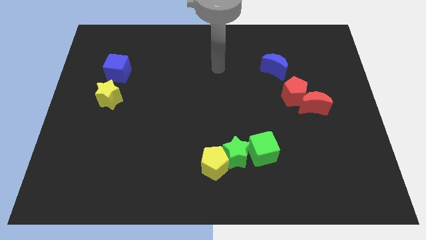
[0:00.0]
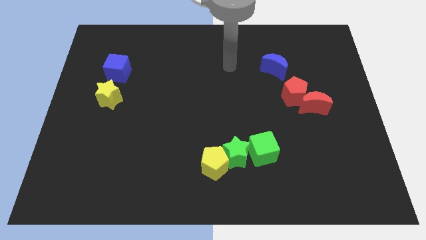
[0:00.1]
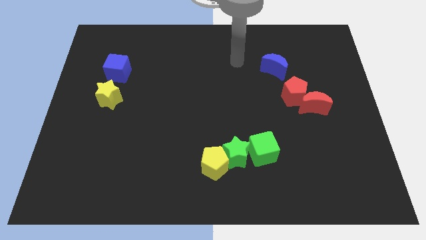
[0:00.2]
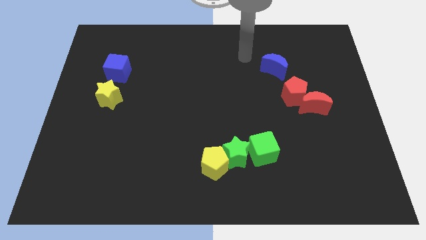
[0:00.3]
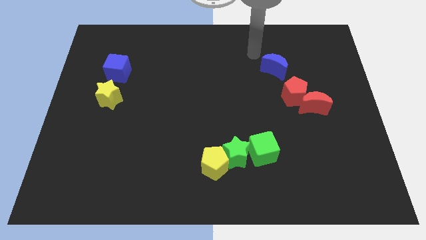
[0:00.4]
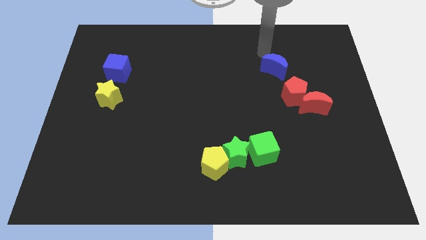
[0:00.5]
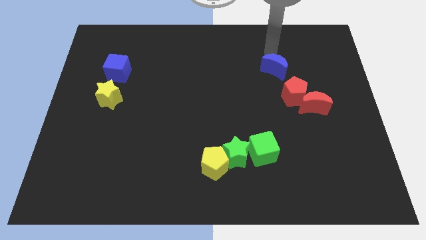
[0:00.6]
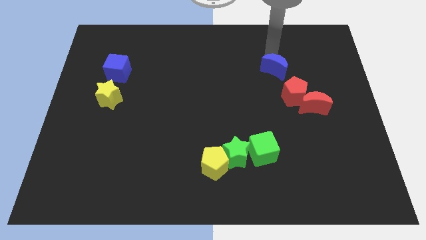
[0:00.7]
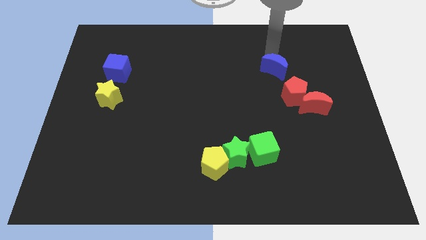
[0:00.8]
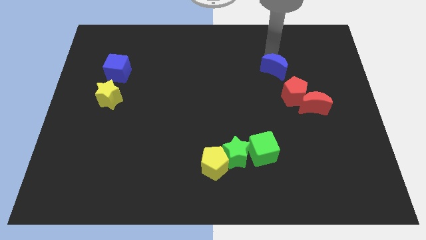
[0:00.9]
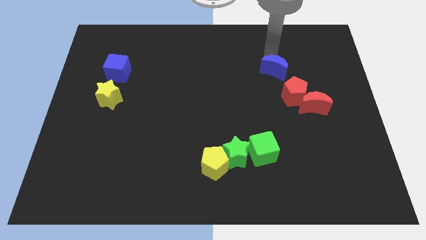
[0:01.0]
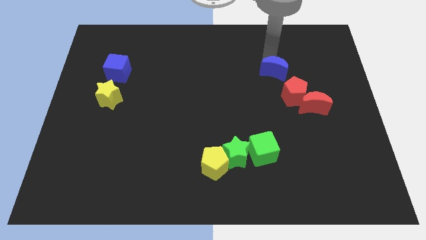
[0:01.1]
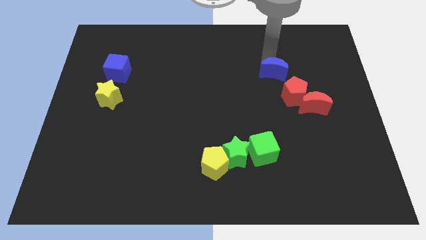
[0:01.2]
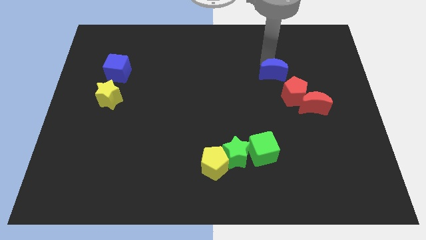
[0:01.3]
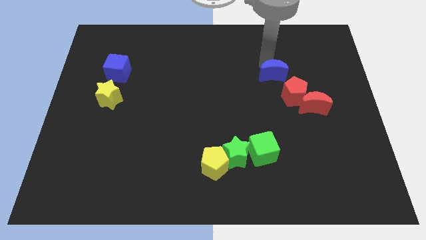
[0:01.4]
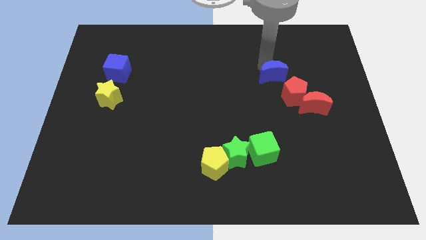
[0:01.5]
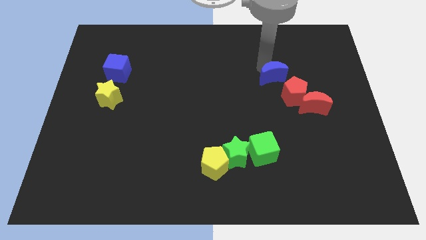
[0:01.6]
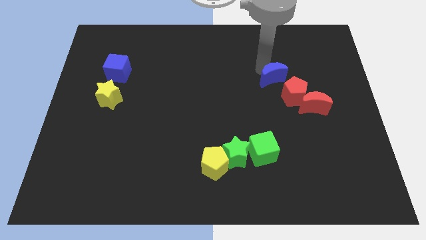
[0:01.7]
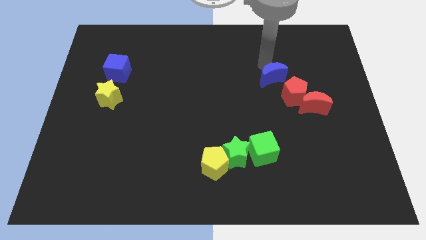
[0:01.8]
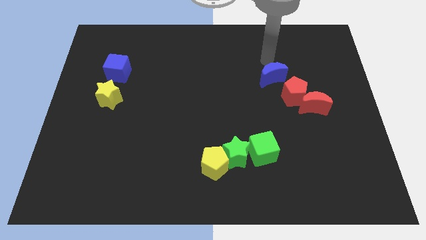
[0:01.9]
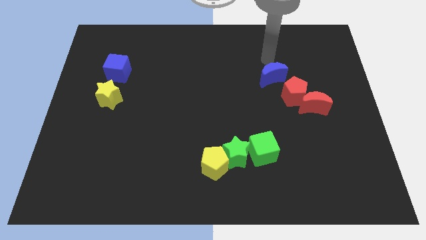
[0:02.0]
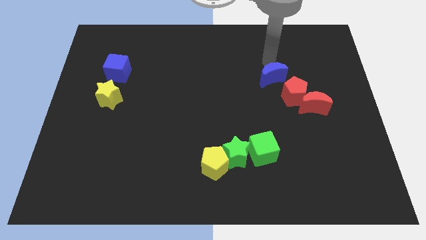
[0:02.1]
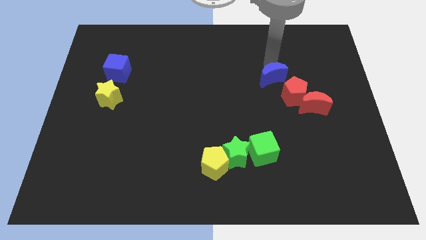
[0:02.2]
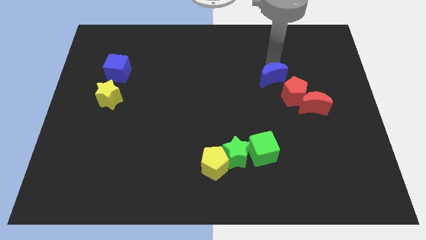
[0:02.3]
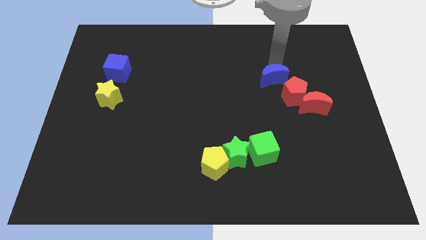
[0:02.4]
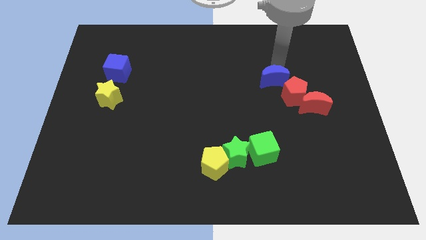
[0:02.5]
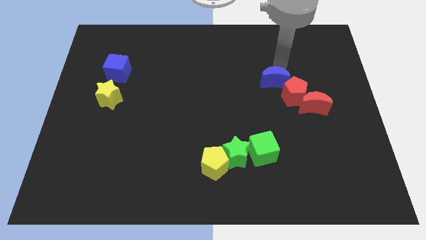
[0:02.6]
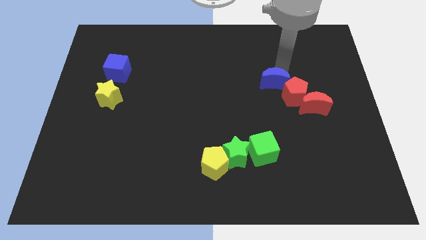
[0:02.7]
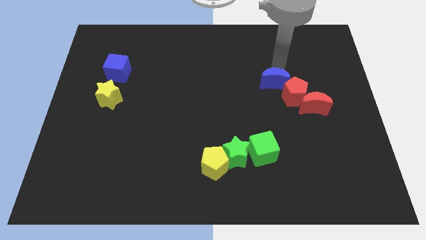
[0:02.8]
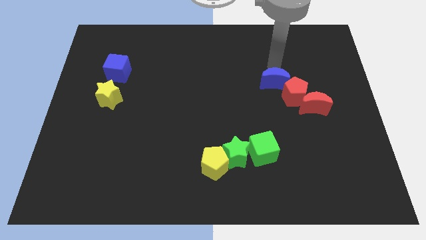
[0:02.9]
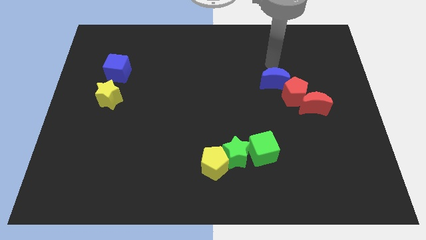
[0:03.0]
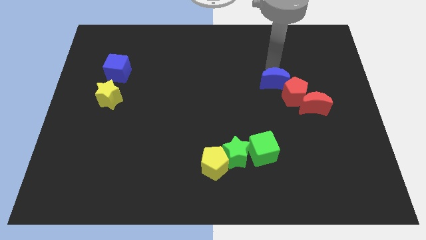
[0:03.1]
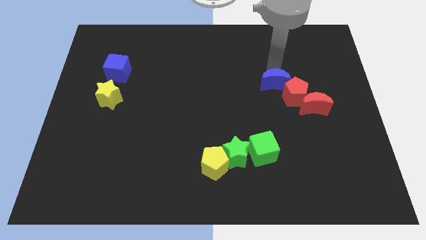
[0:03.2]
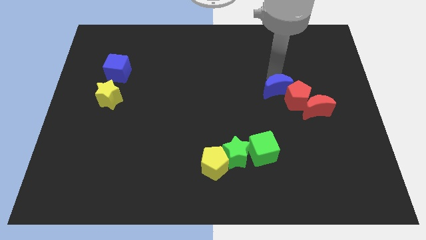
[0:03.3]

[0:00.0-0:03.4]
slightly push the blue moon downwards

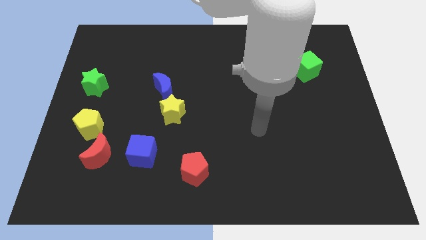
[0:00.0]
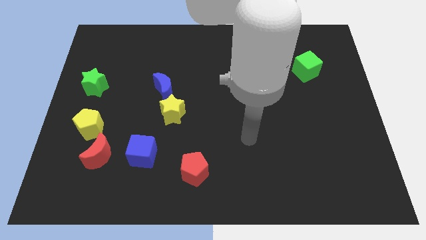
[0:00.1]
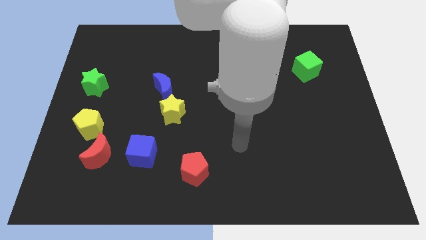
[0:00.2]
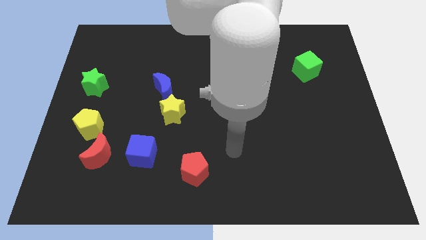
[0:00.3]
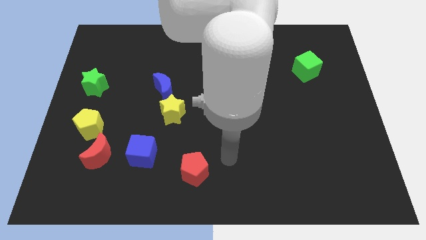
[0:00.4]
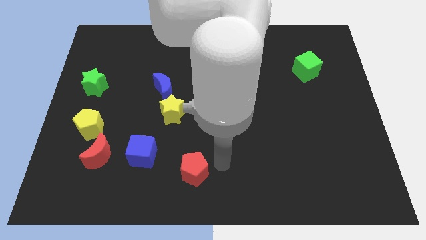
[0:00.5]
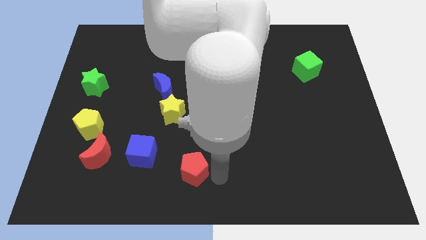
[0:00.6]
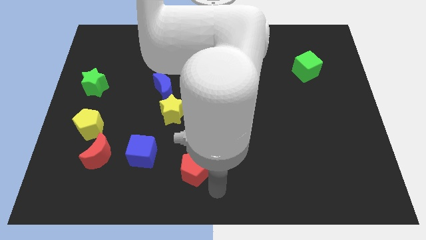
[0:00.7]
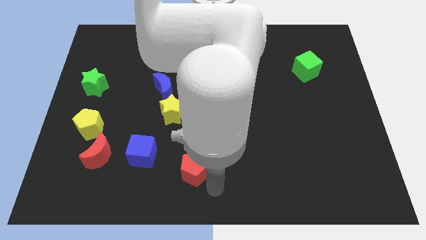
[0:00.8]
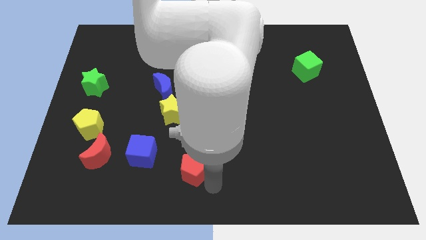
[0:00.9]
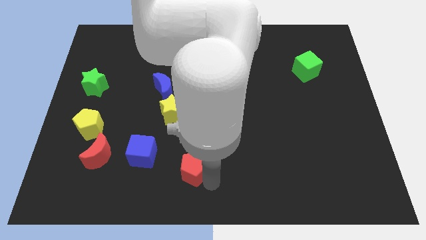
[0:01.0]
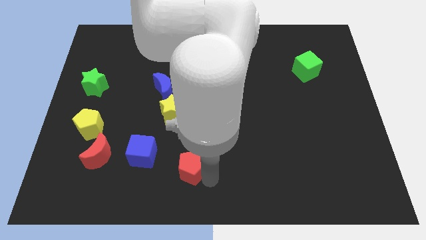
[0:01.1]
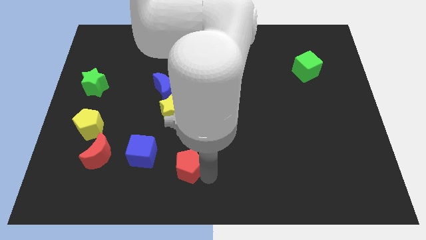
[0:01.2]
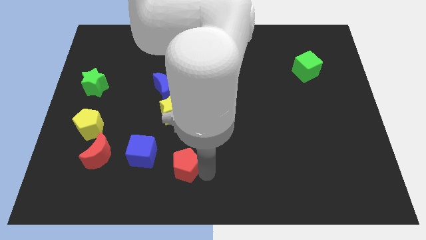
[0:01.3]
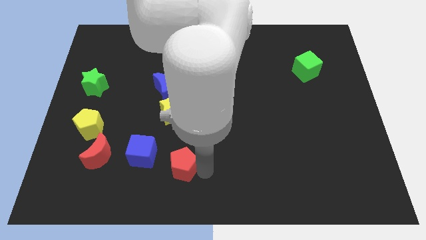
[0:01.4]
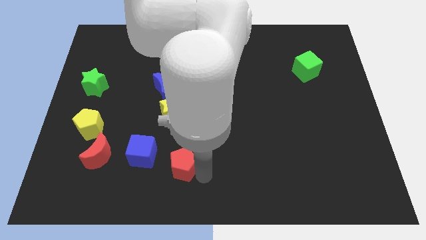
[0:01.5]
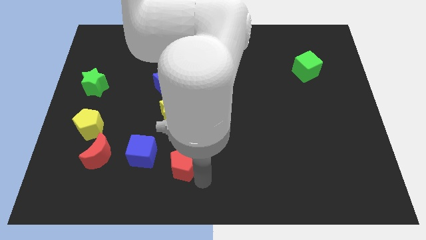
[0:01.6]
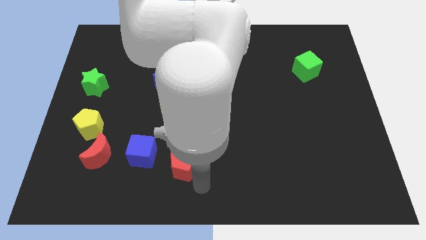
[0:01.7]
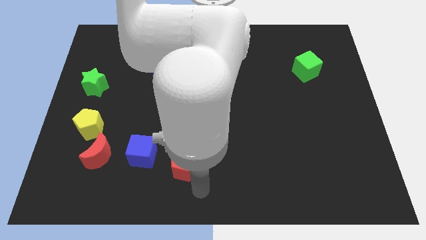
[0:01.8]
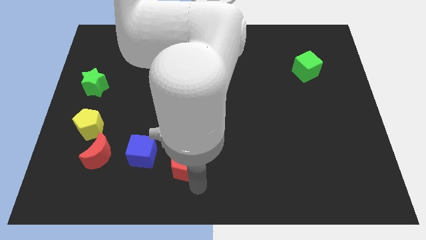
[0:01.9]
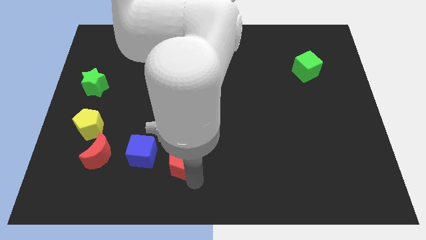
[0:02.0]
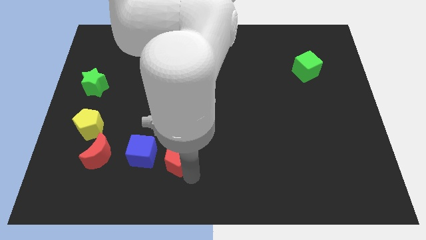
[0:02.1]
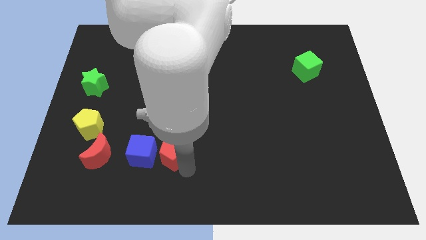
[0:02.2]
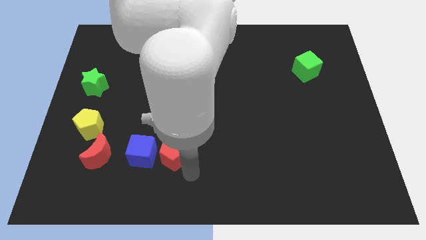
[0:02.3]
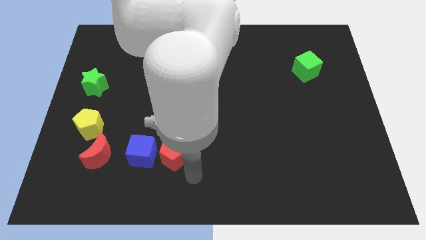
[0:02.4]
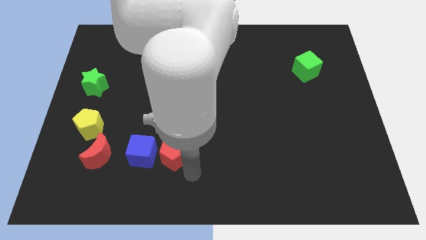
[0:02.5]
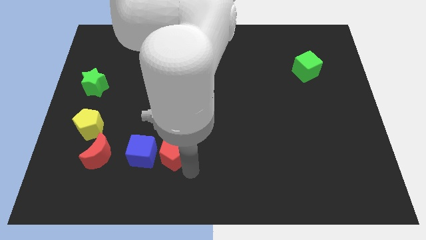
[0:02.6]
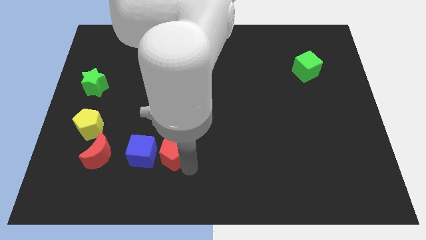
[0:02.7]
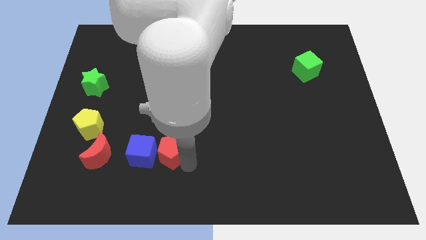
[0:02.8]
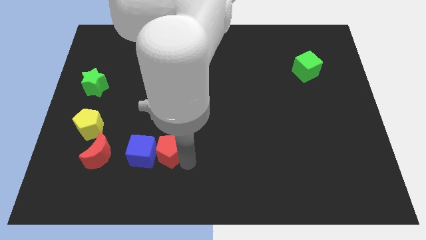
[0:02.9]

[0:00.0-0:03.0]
move the red pentagon upwards and left diagonally a bit

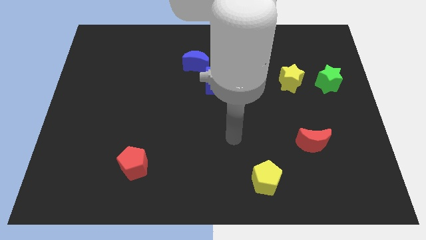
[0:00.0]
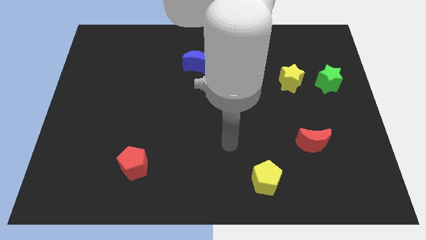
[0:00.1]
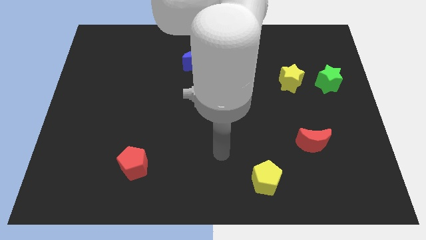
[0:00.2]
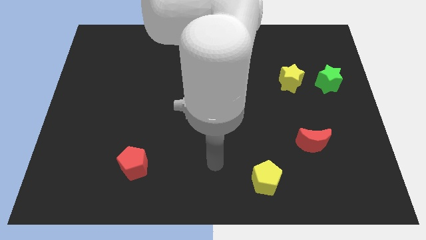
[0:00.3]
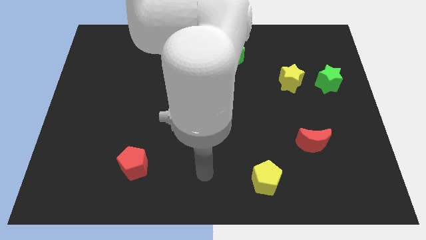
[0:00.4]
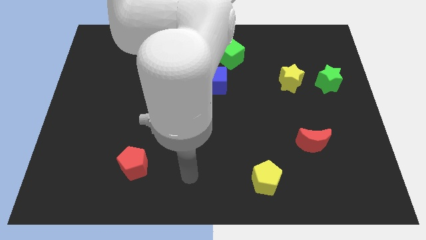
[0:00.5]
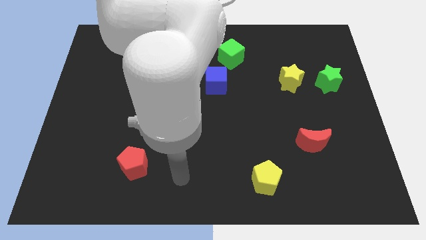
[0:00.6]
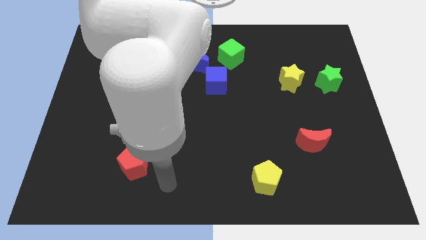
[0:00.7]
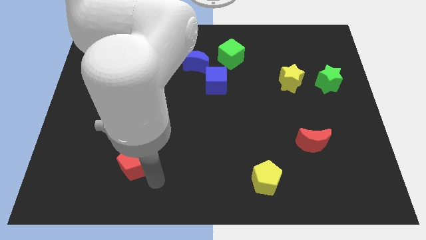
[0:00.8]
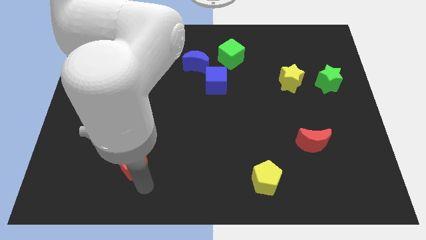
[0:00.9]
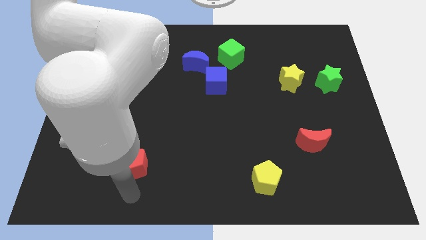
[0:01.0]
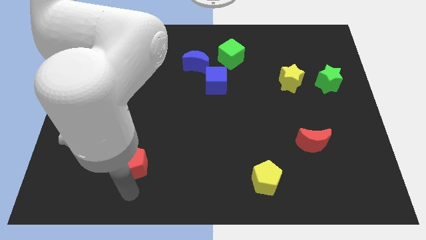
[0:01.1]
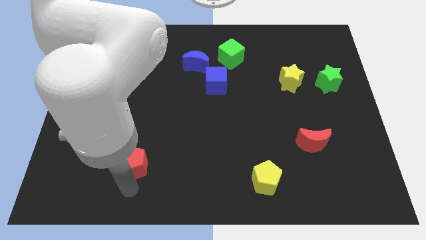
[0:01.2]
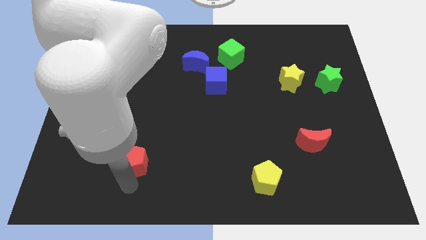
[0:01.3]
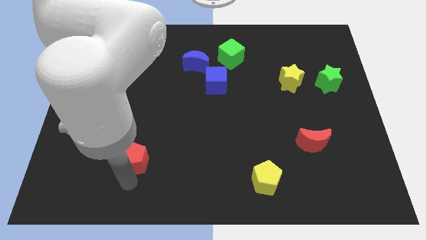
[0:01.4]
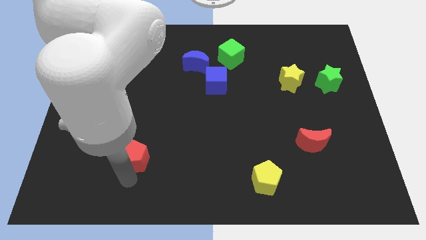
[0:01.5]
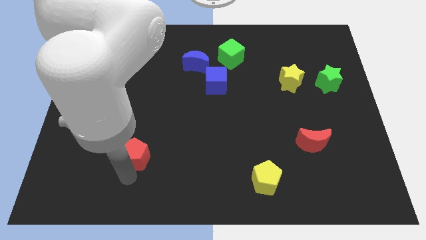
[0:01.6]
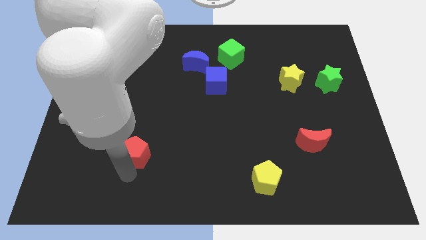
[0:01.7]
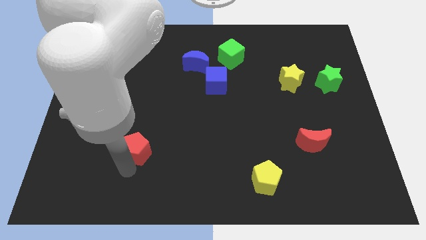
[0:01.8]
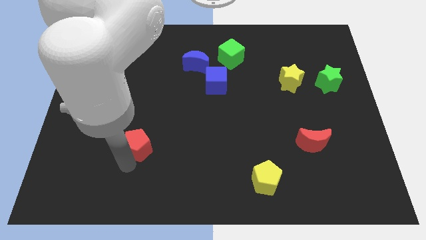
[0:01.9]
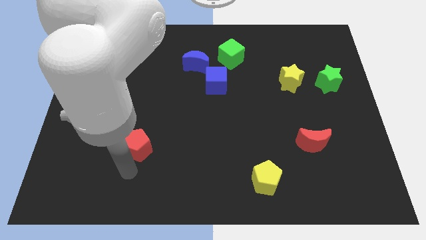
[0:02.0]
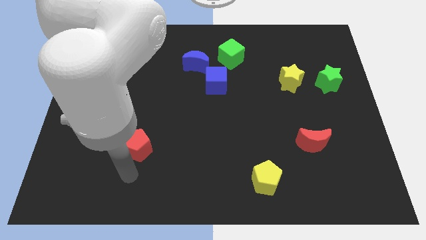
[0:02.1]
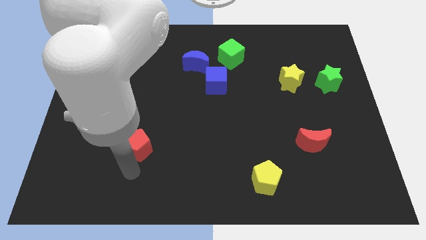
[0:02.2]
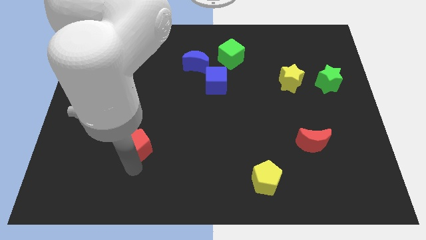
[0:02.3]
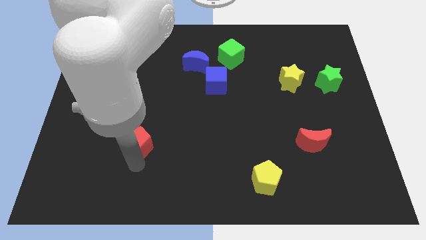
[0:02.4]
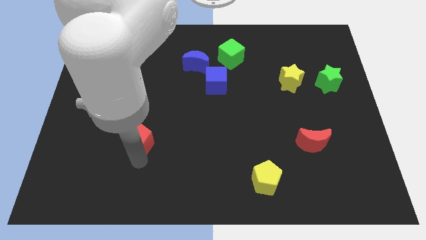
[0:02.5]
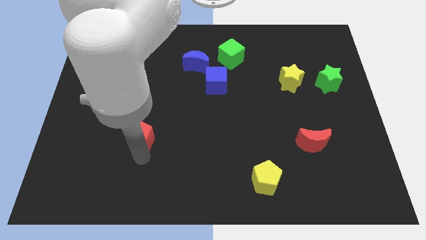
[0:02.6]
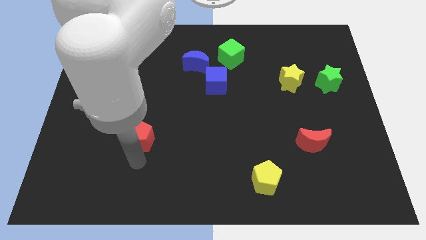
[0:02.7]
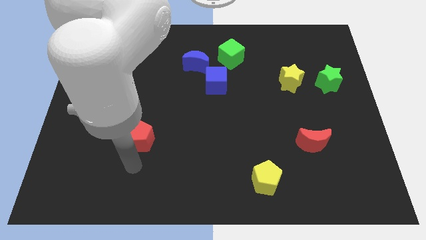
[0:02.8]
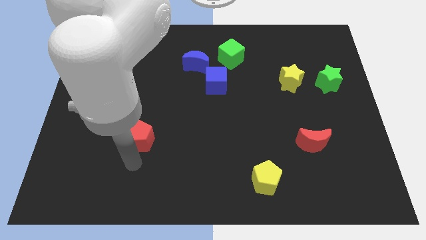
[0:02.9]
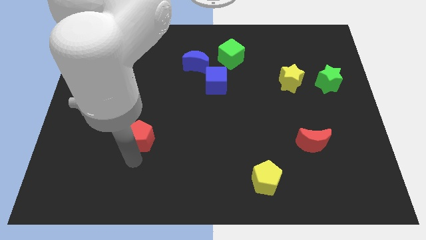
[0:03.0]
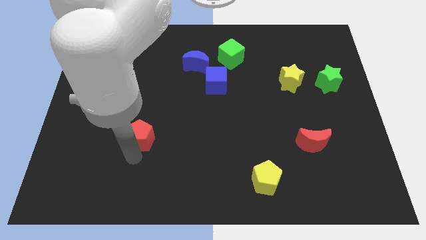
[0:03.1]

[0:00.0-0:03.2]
push the red pentagon a bit upwards
